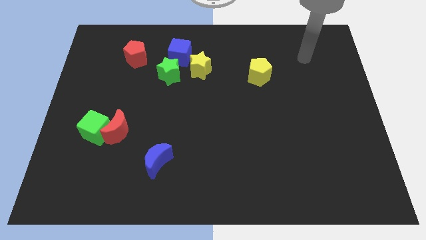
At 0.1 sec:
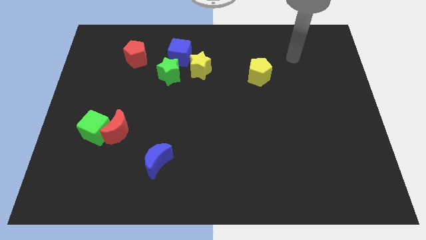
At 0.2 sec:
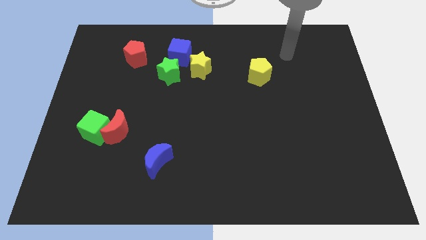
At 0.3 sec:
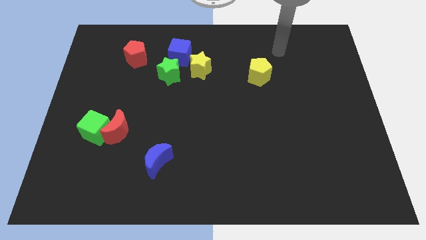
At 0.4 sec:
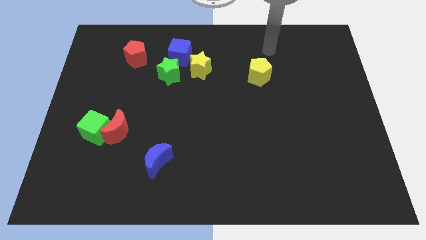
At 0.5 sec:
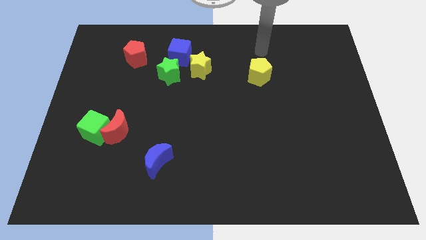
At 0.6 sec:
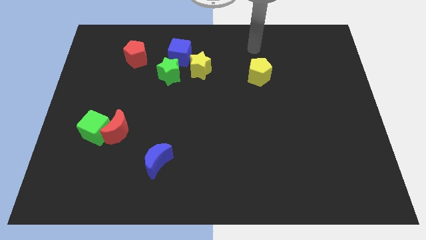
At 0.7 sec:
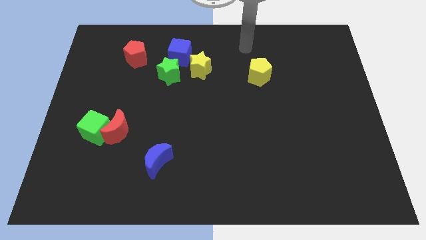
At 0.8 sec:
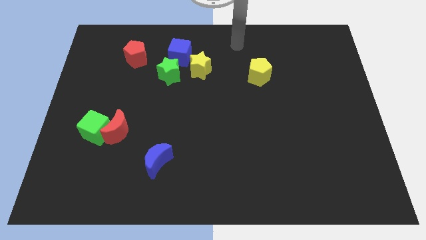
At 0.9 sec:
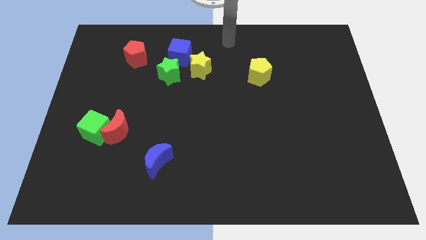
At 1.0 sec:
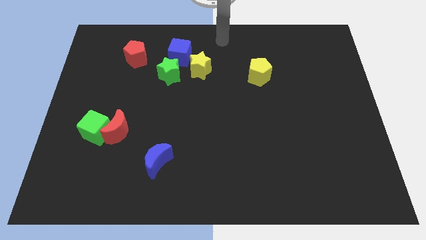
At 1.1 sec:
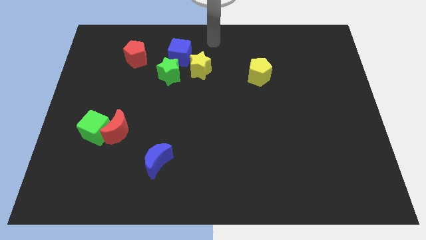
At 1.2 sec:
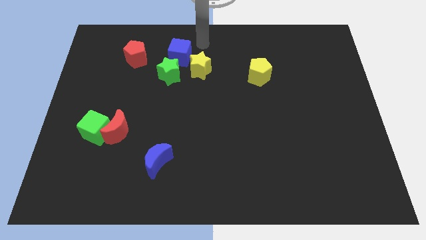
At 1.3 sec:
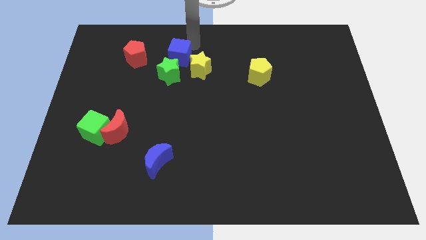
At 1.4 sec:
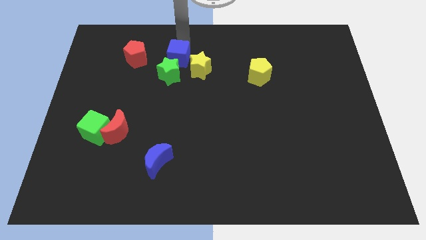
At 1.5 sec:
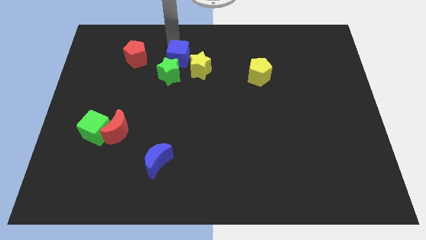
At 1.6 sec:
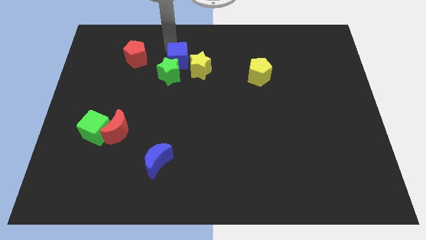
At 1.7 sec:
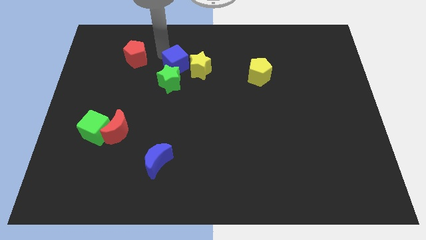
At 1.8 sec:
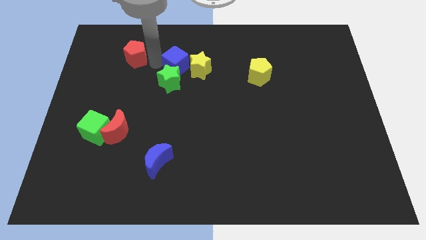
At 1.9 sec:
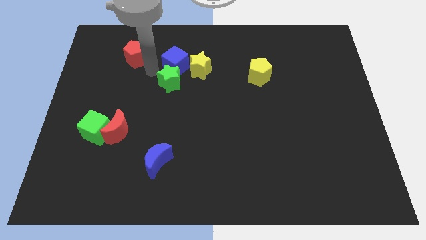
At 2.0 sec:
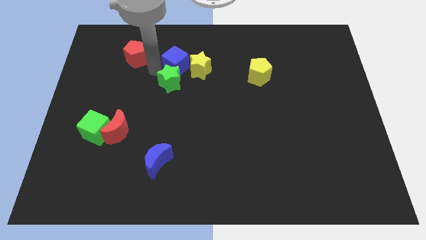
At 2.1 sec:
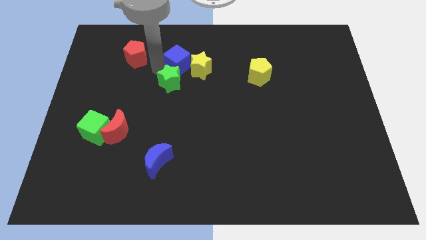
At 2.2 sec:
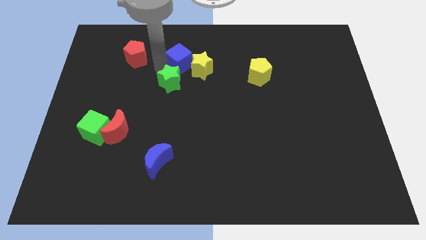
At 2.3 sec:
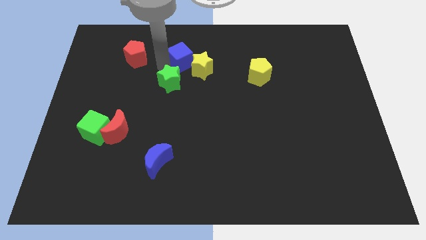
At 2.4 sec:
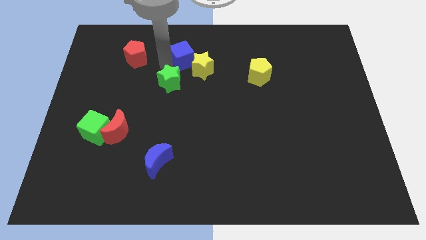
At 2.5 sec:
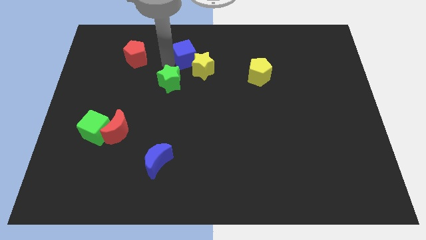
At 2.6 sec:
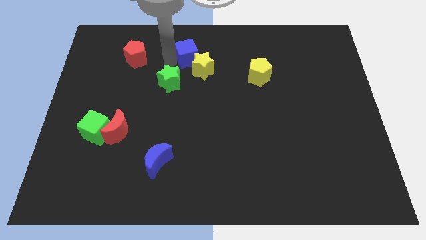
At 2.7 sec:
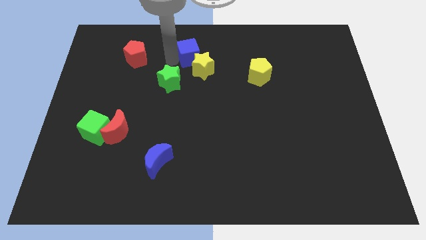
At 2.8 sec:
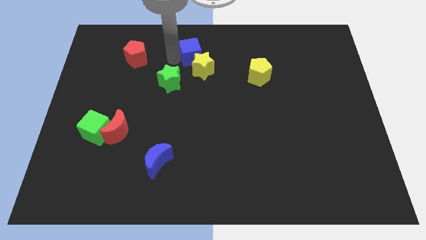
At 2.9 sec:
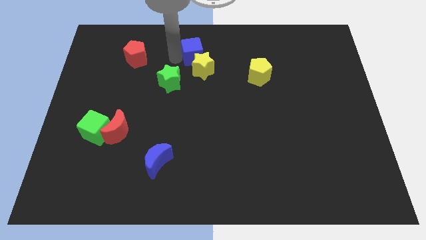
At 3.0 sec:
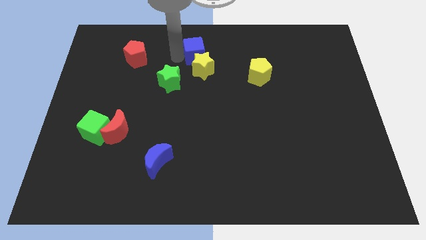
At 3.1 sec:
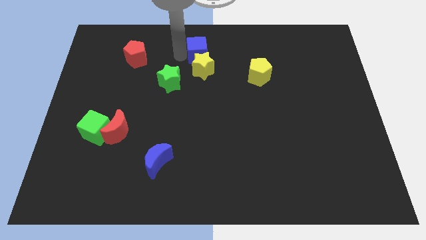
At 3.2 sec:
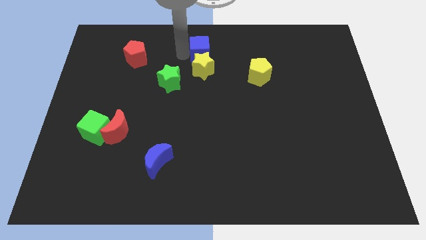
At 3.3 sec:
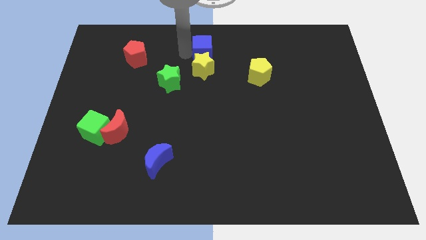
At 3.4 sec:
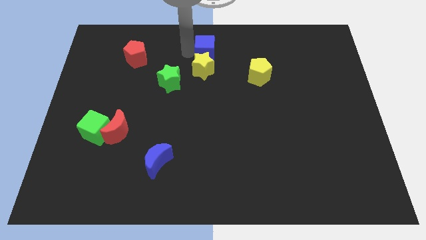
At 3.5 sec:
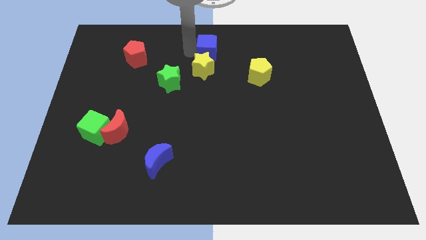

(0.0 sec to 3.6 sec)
slightly move the blue cube right

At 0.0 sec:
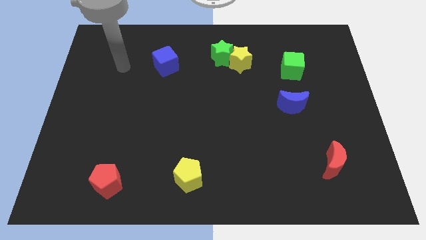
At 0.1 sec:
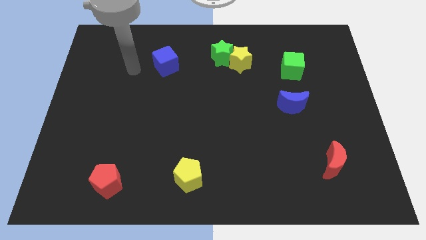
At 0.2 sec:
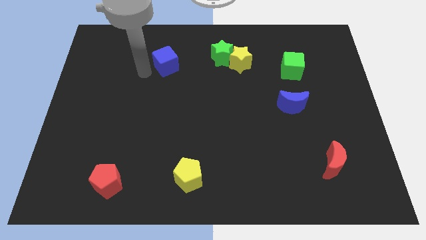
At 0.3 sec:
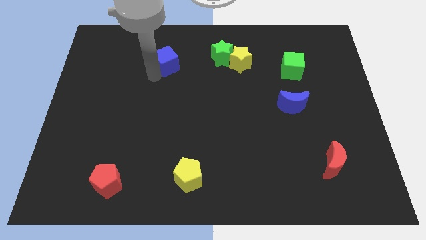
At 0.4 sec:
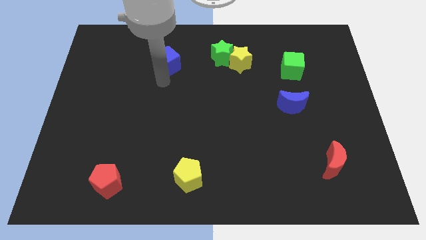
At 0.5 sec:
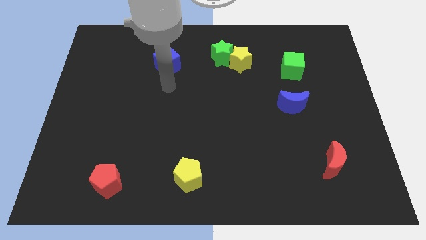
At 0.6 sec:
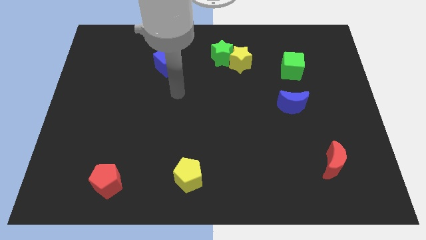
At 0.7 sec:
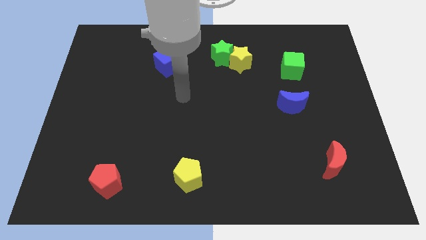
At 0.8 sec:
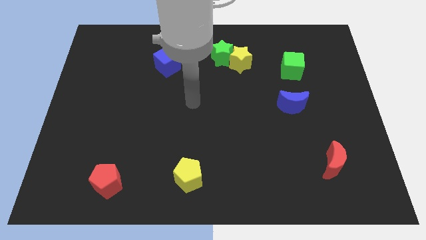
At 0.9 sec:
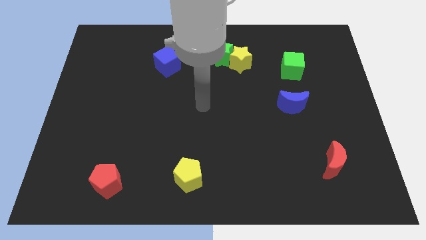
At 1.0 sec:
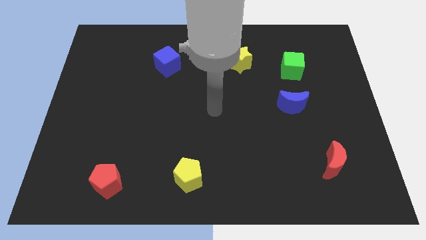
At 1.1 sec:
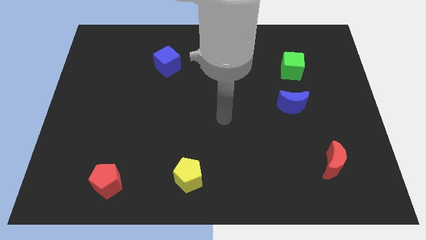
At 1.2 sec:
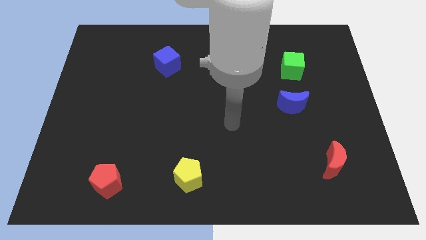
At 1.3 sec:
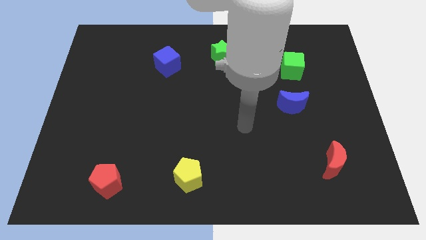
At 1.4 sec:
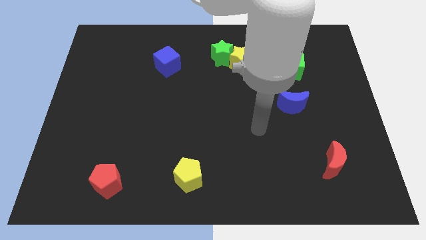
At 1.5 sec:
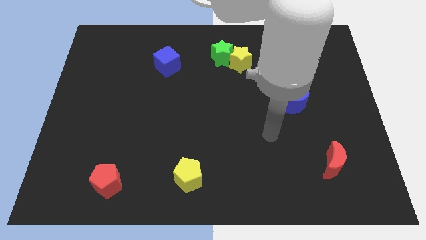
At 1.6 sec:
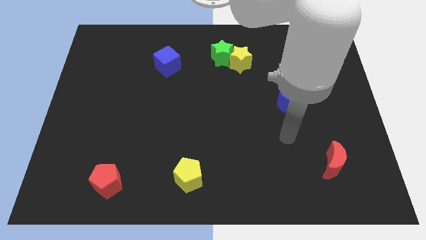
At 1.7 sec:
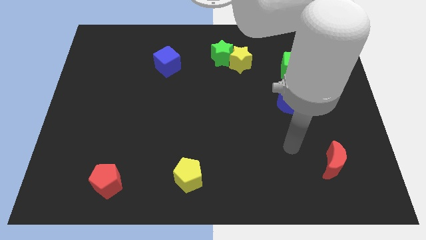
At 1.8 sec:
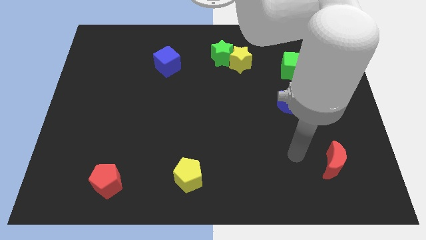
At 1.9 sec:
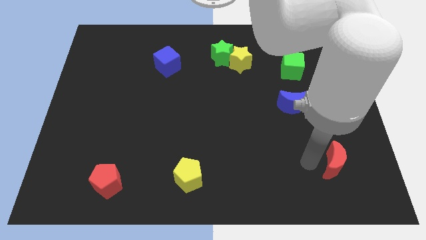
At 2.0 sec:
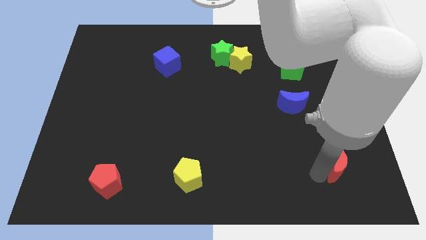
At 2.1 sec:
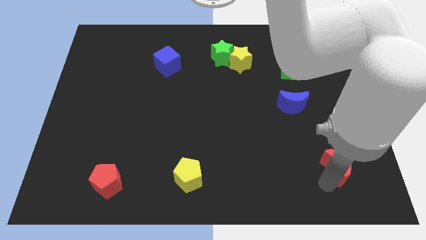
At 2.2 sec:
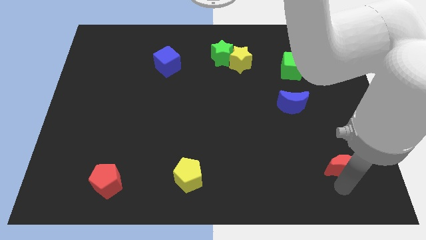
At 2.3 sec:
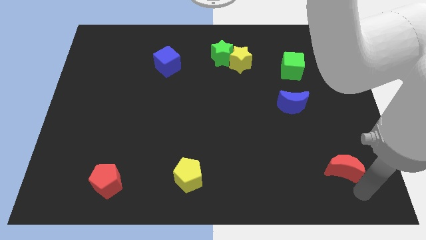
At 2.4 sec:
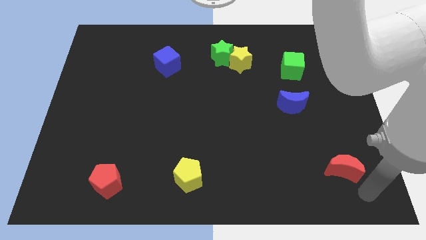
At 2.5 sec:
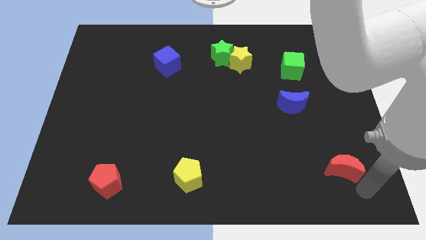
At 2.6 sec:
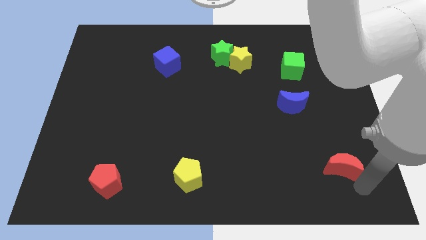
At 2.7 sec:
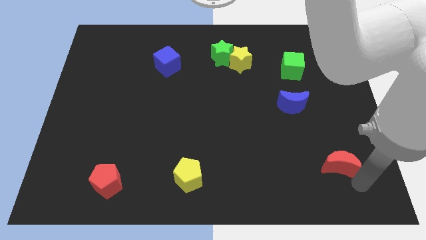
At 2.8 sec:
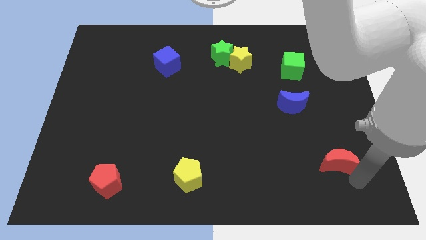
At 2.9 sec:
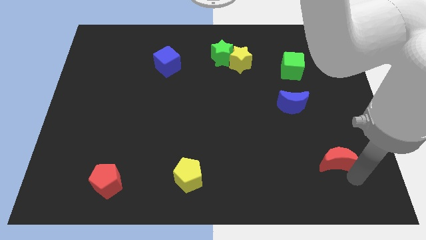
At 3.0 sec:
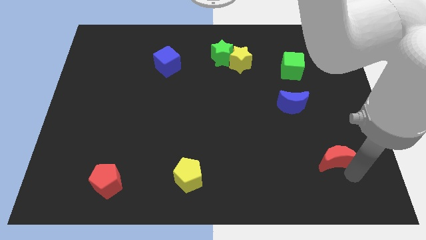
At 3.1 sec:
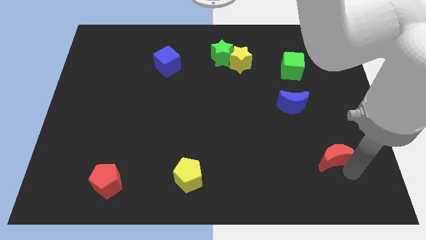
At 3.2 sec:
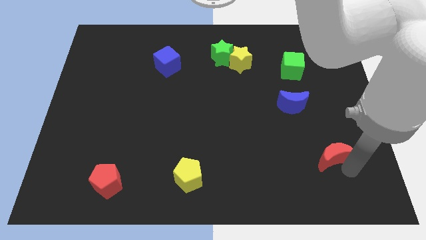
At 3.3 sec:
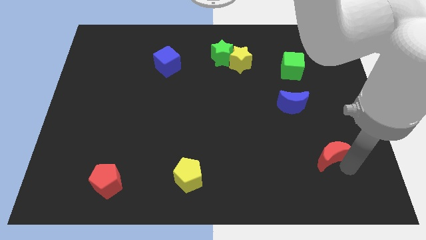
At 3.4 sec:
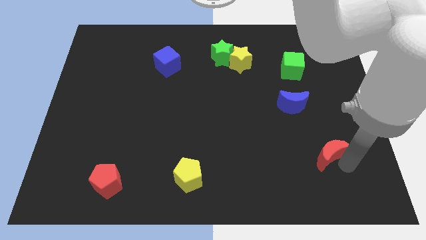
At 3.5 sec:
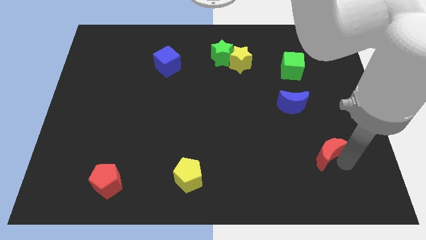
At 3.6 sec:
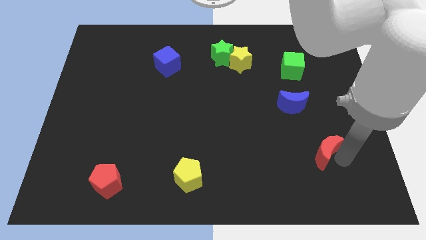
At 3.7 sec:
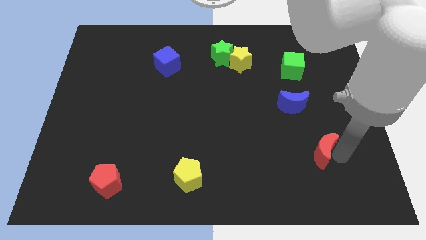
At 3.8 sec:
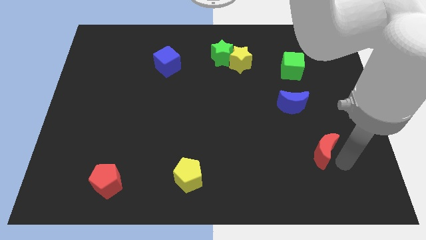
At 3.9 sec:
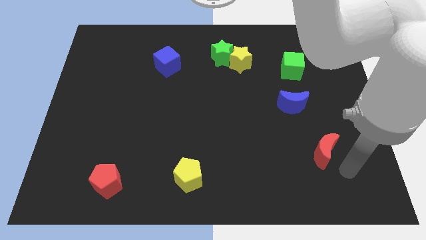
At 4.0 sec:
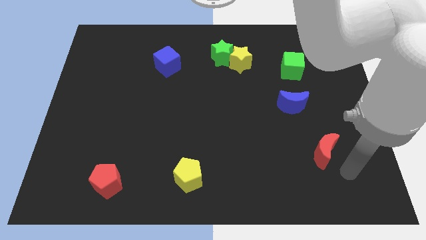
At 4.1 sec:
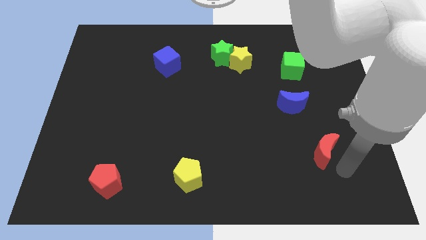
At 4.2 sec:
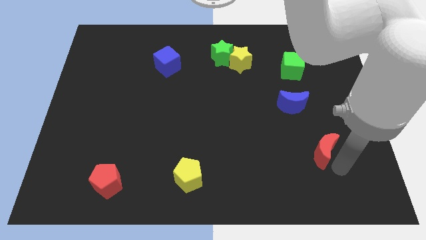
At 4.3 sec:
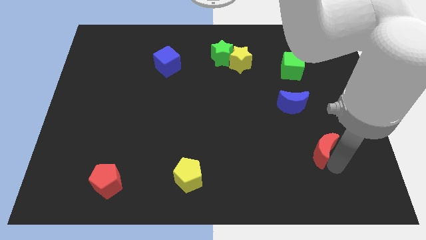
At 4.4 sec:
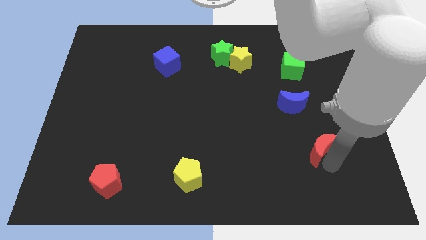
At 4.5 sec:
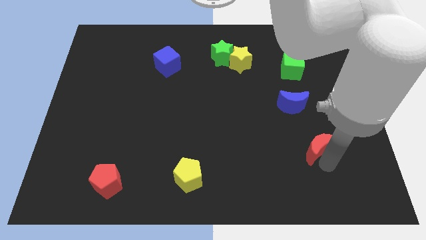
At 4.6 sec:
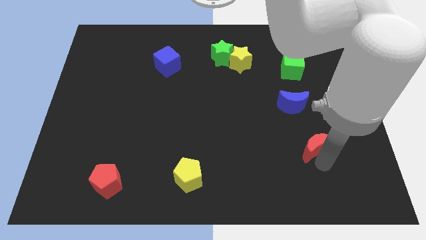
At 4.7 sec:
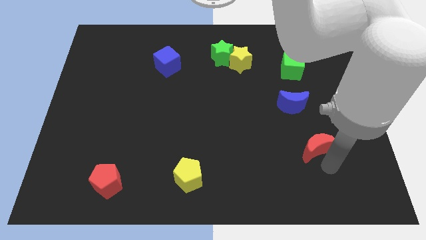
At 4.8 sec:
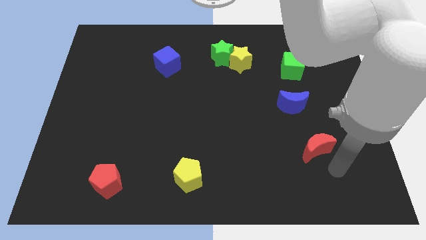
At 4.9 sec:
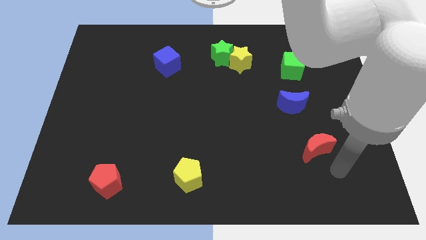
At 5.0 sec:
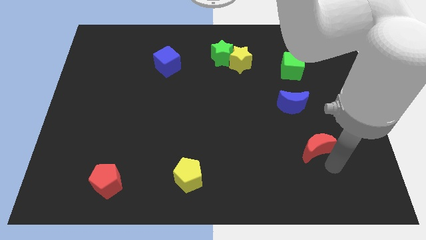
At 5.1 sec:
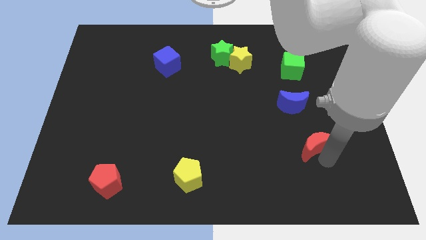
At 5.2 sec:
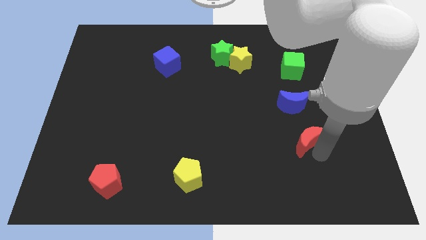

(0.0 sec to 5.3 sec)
slightly move the red moon up and to the left diagonally
